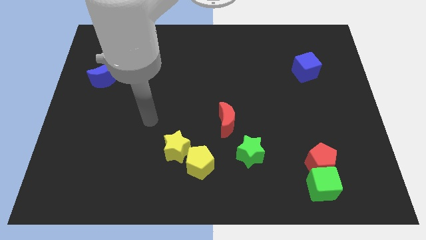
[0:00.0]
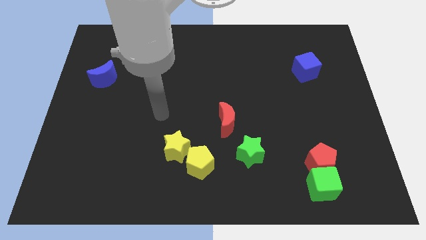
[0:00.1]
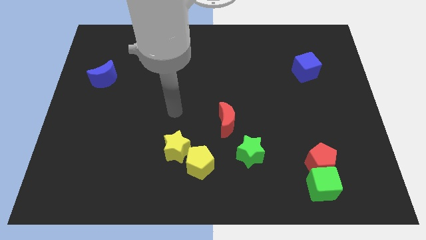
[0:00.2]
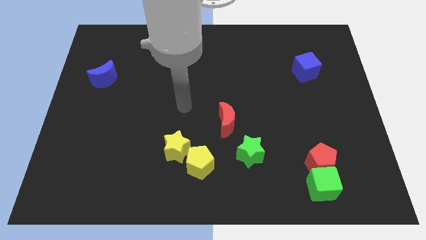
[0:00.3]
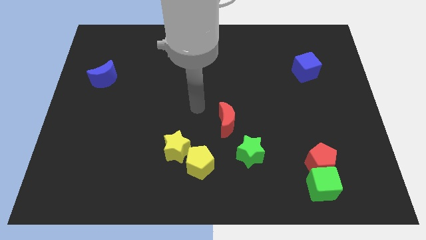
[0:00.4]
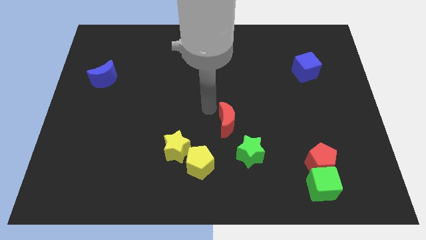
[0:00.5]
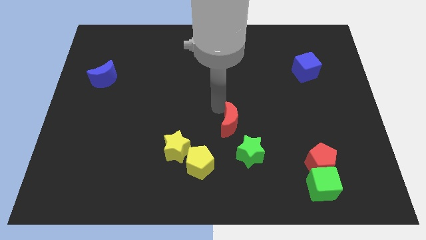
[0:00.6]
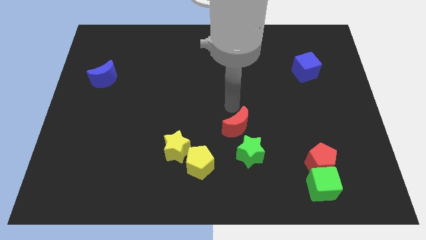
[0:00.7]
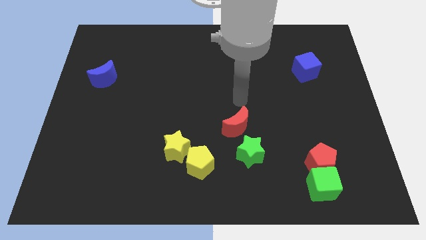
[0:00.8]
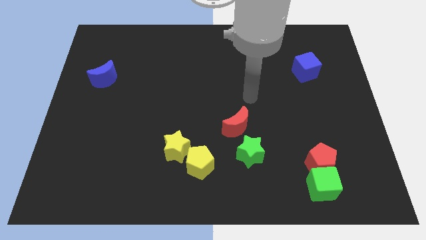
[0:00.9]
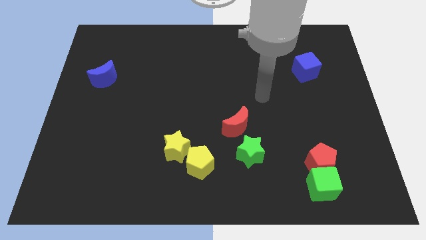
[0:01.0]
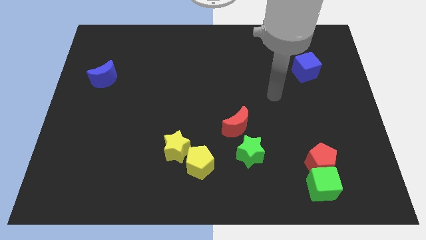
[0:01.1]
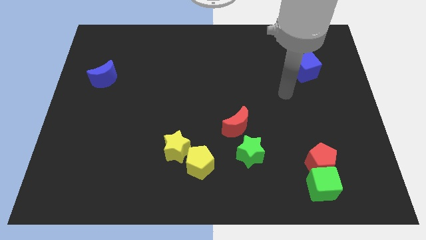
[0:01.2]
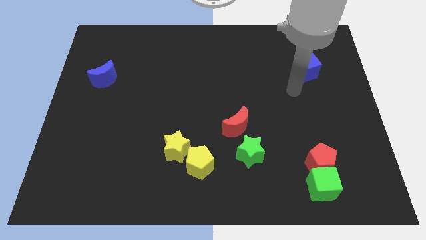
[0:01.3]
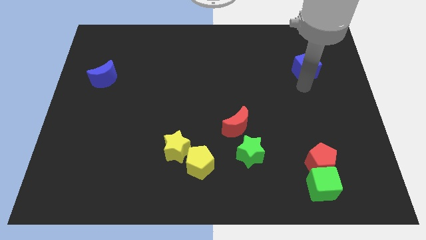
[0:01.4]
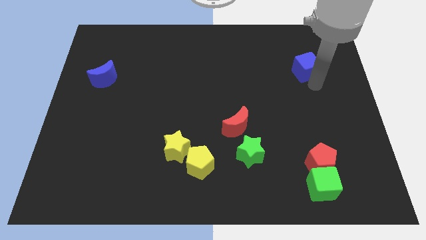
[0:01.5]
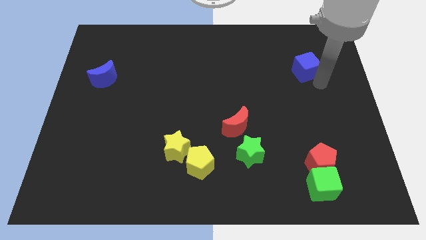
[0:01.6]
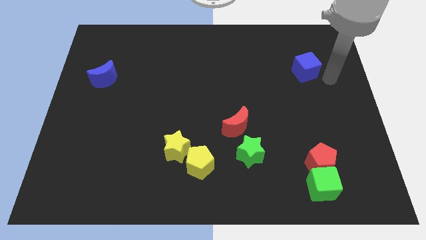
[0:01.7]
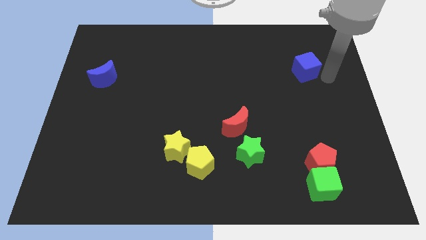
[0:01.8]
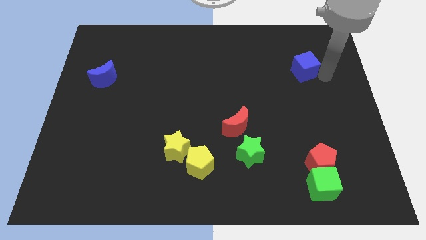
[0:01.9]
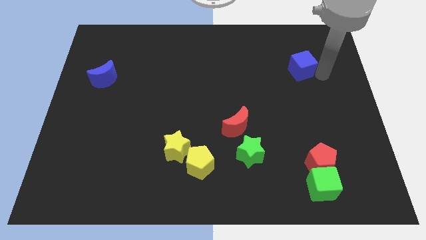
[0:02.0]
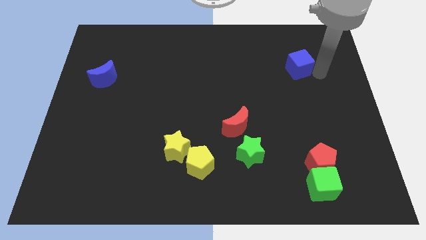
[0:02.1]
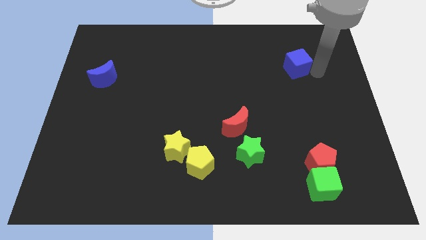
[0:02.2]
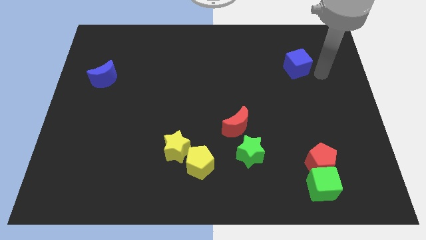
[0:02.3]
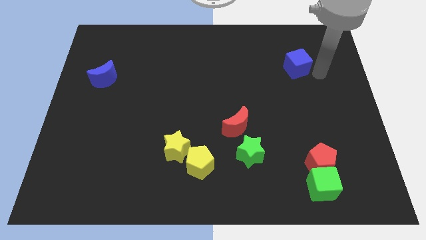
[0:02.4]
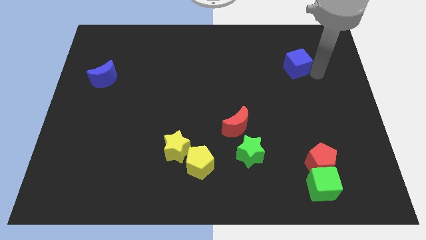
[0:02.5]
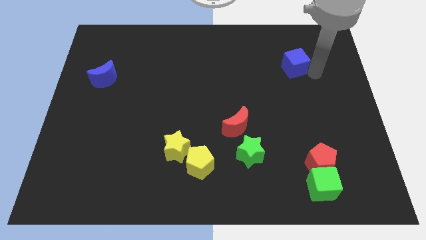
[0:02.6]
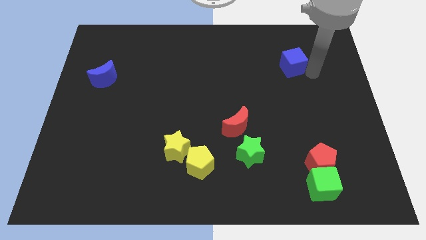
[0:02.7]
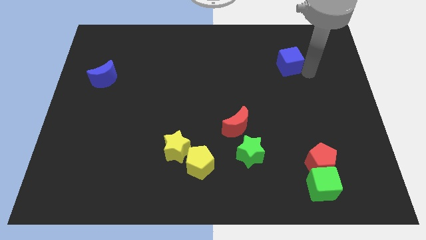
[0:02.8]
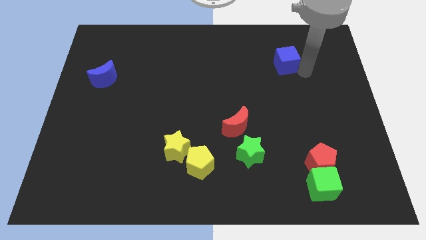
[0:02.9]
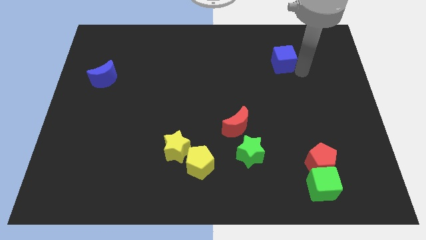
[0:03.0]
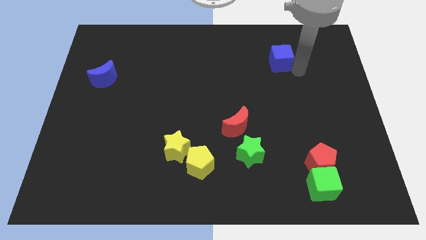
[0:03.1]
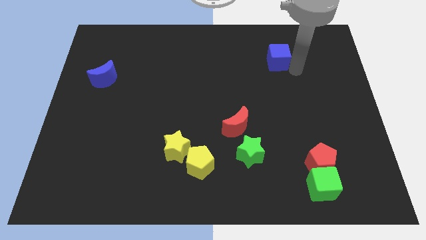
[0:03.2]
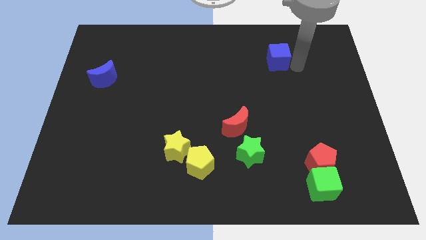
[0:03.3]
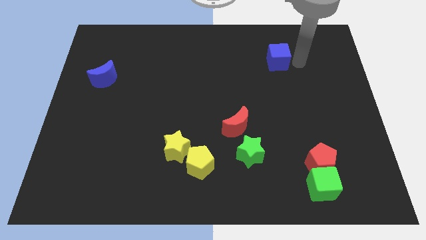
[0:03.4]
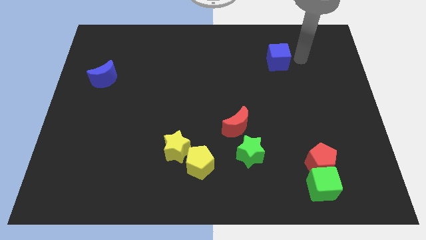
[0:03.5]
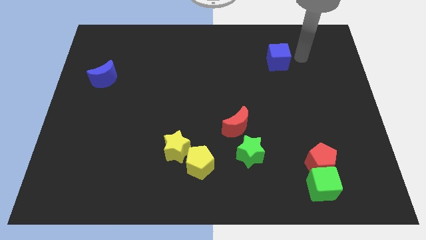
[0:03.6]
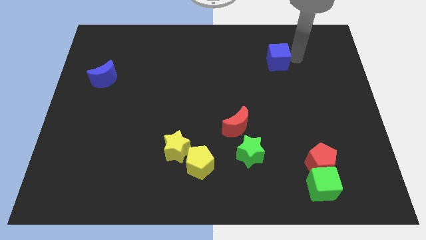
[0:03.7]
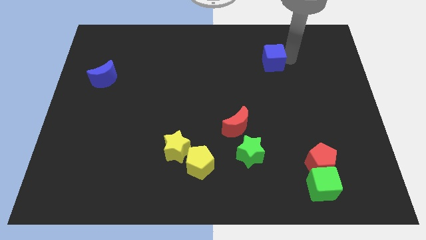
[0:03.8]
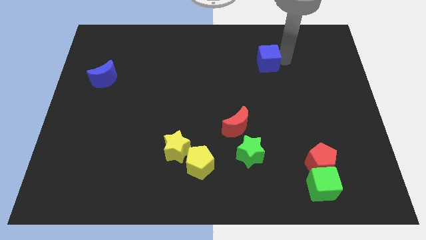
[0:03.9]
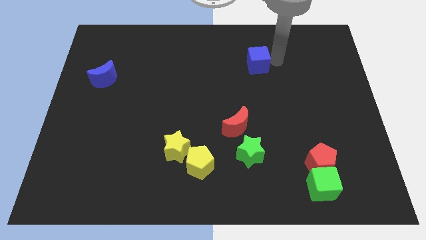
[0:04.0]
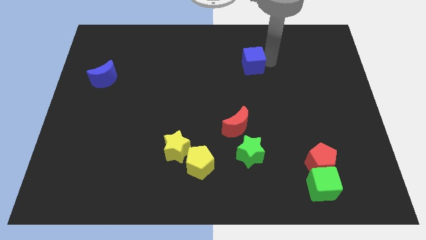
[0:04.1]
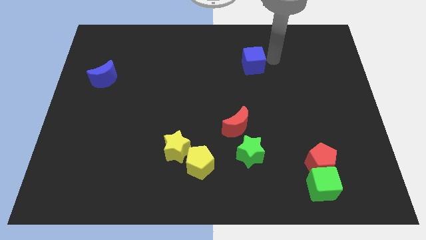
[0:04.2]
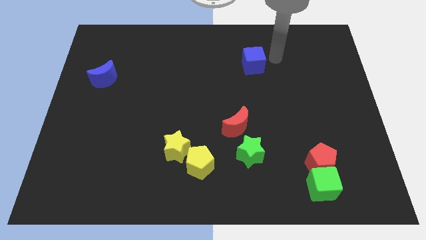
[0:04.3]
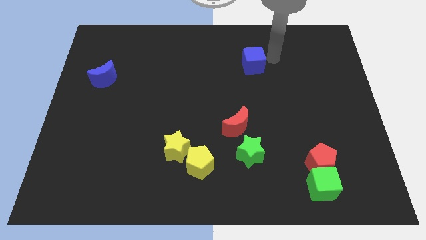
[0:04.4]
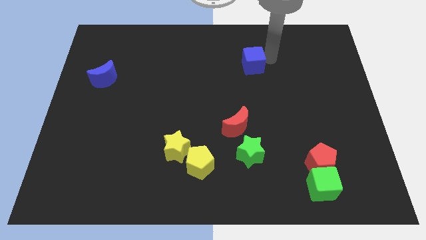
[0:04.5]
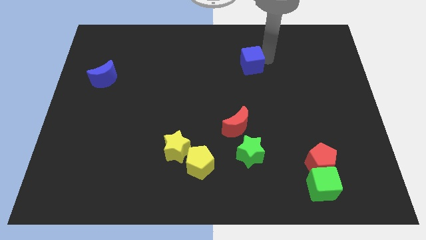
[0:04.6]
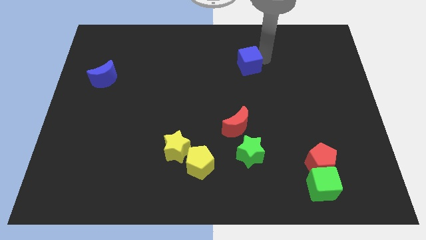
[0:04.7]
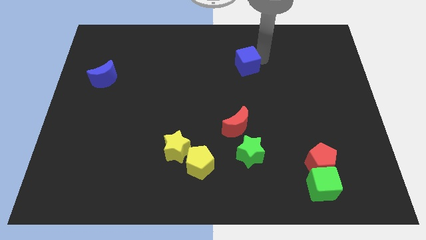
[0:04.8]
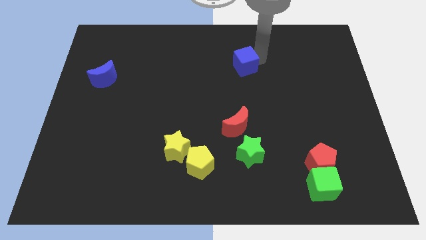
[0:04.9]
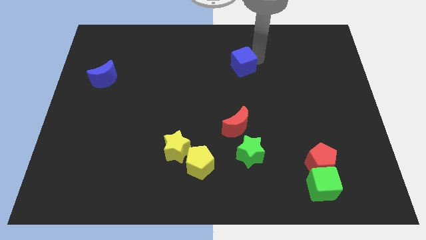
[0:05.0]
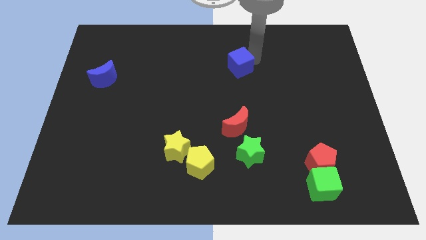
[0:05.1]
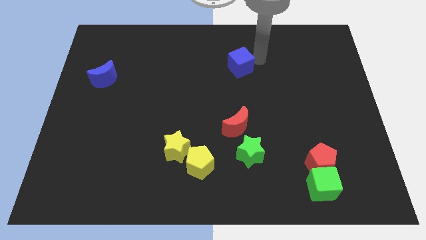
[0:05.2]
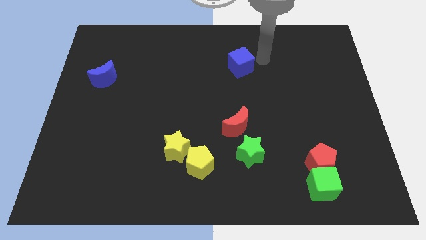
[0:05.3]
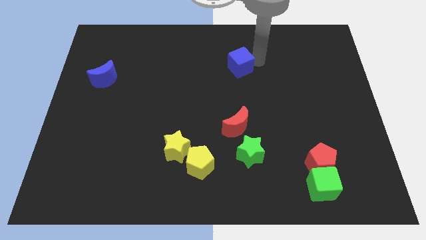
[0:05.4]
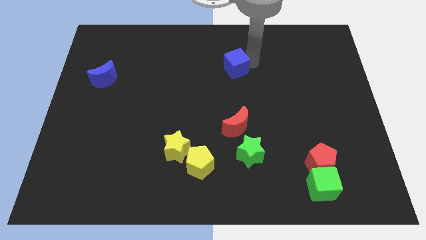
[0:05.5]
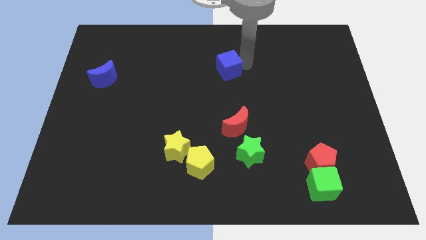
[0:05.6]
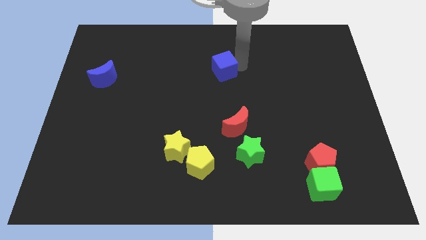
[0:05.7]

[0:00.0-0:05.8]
slide the blue cube left

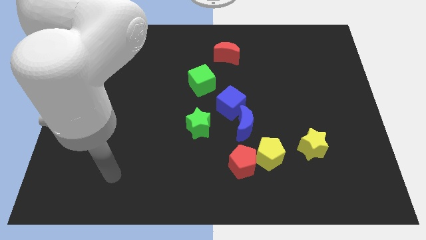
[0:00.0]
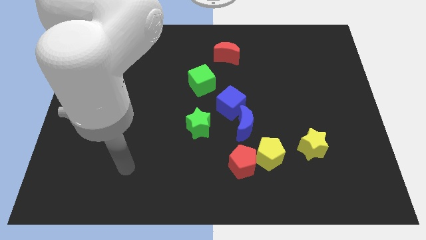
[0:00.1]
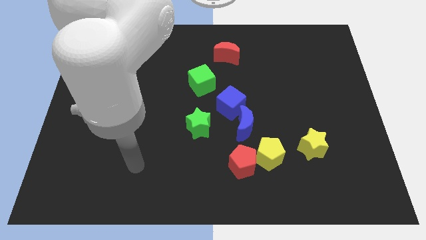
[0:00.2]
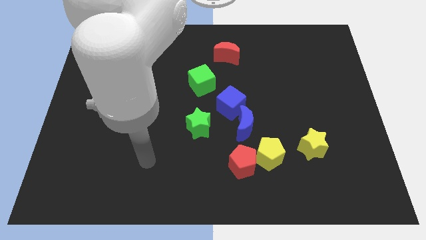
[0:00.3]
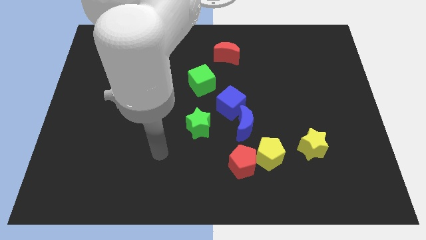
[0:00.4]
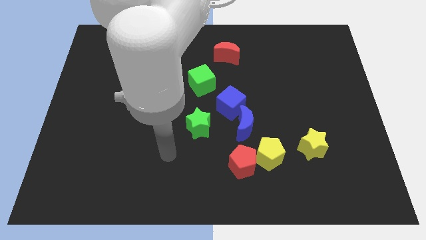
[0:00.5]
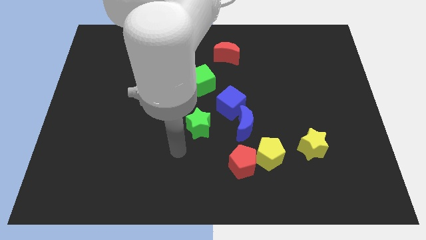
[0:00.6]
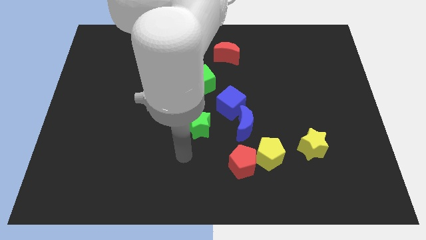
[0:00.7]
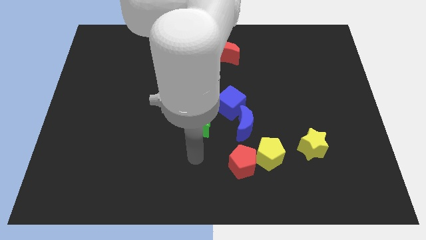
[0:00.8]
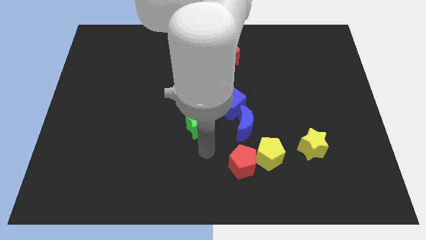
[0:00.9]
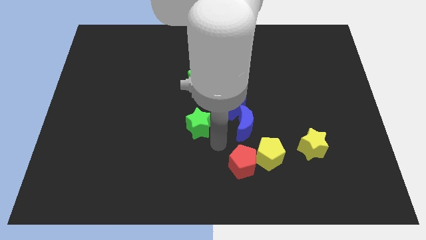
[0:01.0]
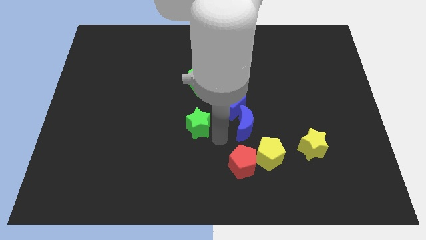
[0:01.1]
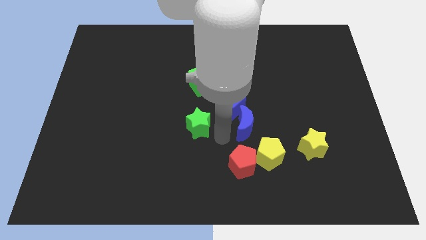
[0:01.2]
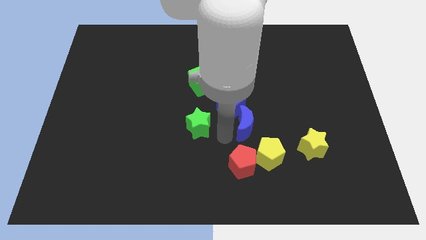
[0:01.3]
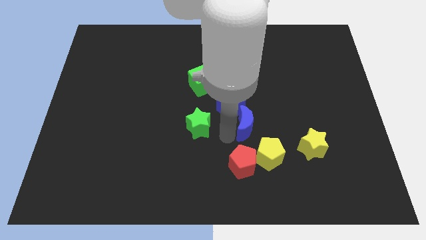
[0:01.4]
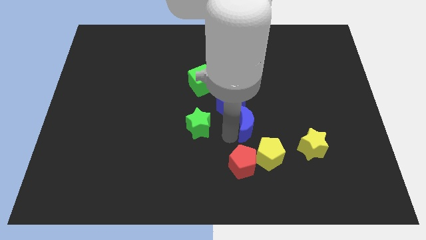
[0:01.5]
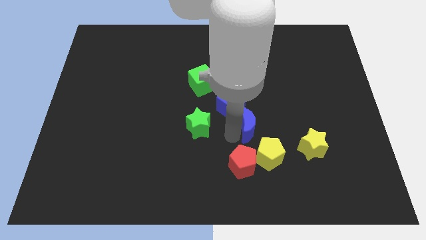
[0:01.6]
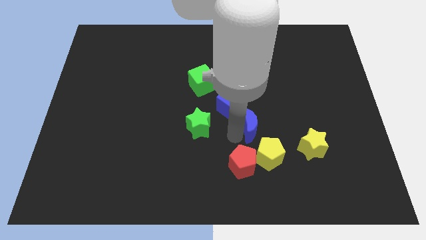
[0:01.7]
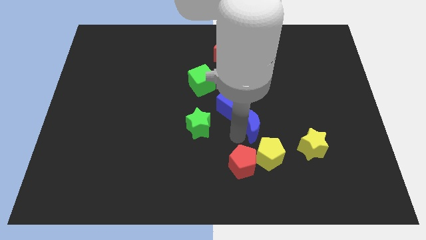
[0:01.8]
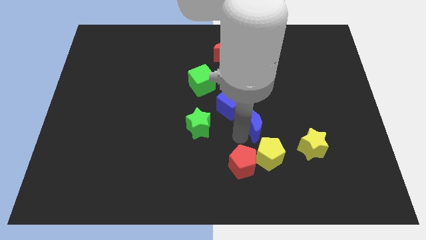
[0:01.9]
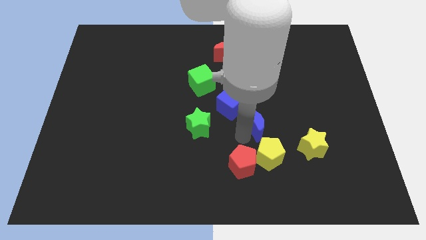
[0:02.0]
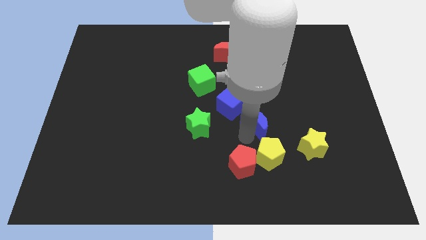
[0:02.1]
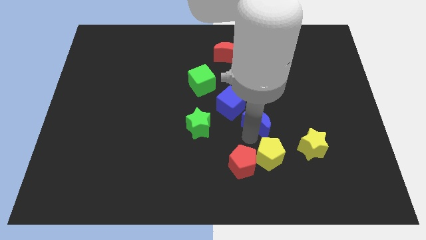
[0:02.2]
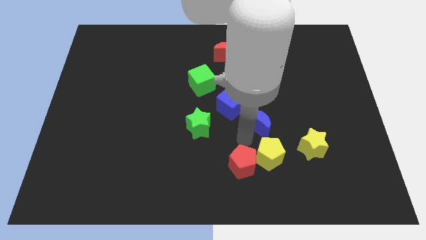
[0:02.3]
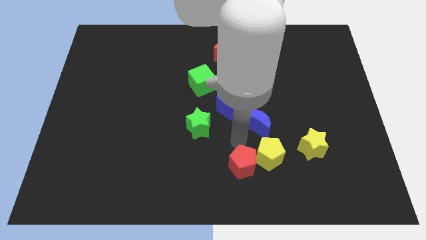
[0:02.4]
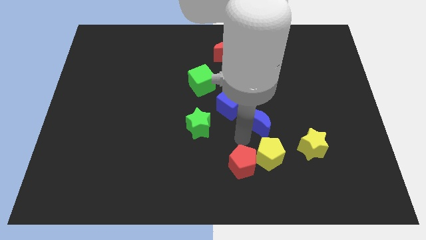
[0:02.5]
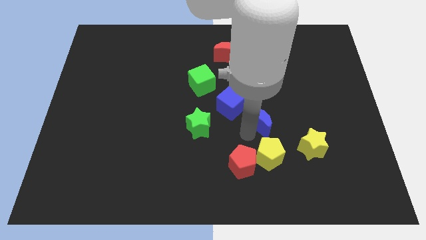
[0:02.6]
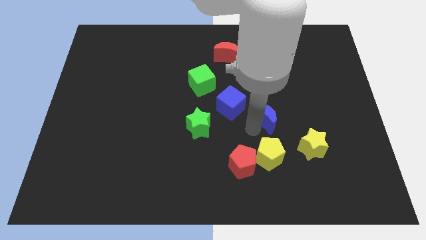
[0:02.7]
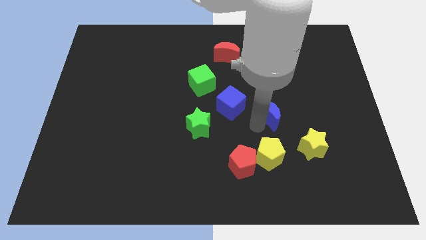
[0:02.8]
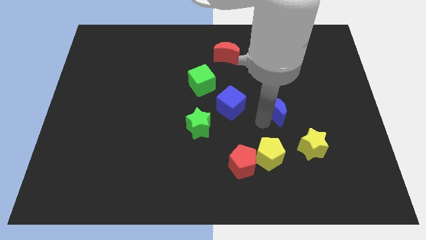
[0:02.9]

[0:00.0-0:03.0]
slightly push the blue moon up and right
